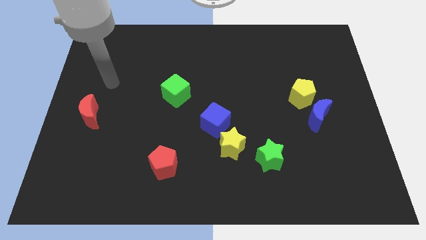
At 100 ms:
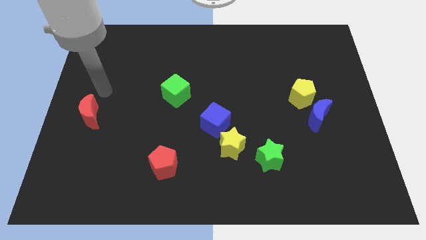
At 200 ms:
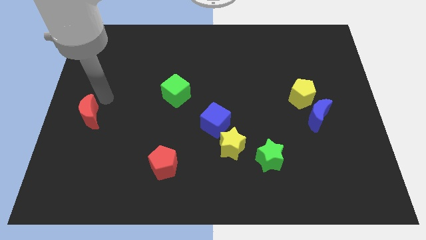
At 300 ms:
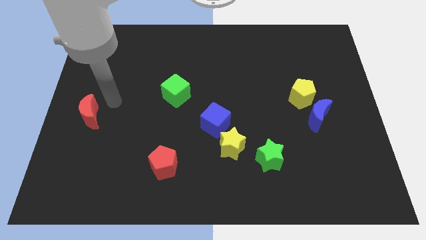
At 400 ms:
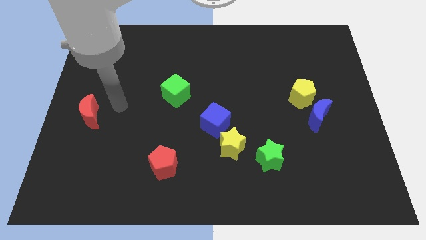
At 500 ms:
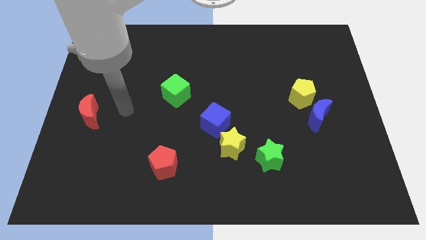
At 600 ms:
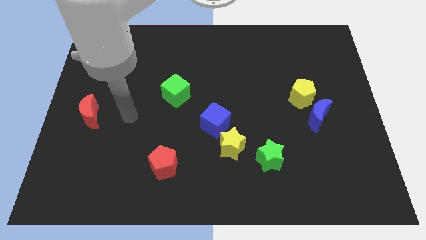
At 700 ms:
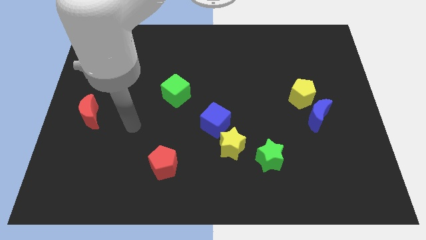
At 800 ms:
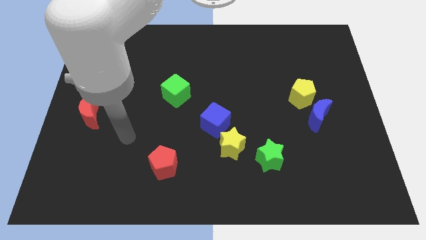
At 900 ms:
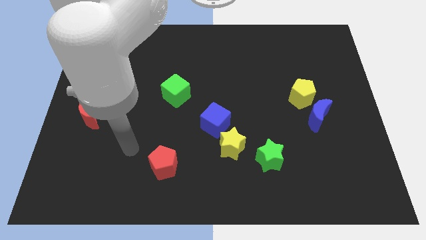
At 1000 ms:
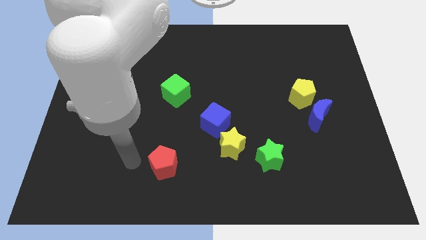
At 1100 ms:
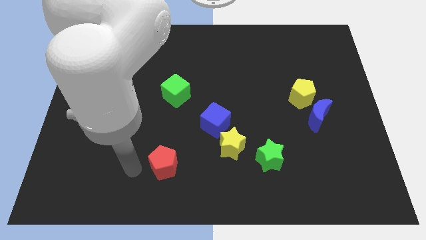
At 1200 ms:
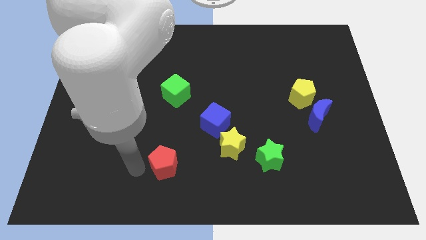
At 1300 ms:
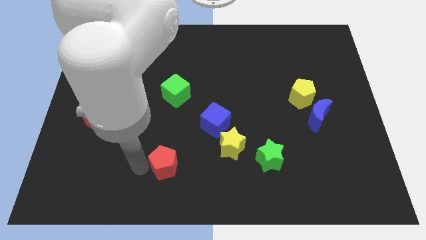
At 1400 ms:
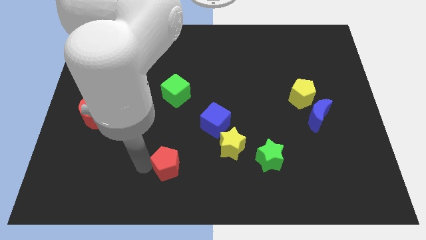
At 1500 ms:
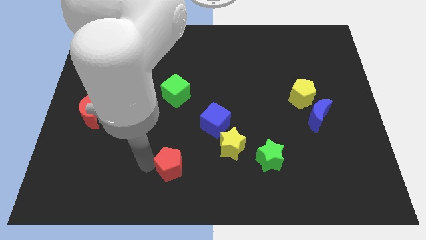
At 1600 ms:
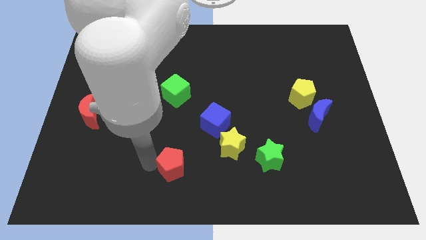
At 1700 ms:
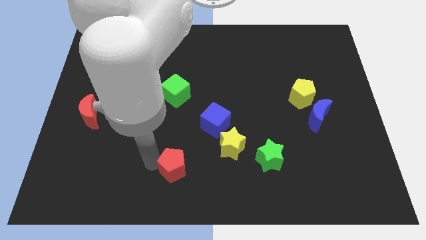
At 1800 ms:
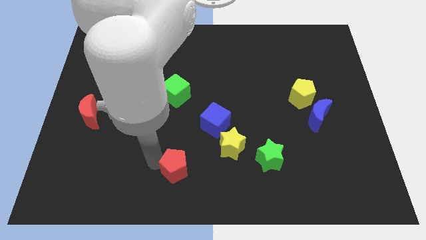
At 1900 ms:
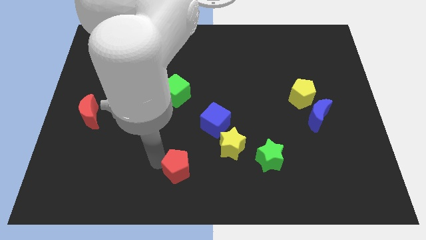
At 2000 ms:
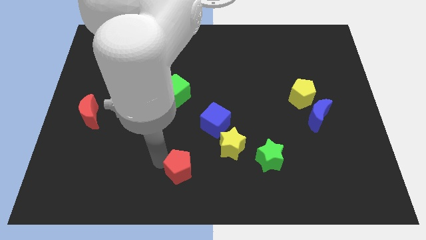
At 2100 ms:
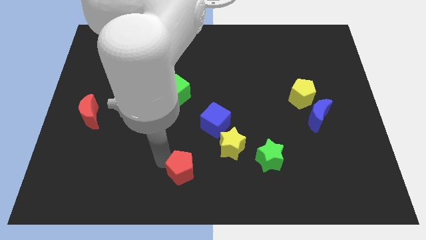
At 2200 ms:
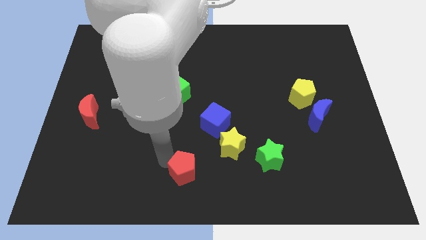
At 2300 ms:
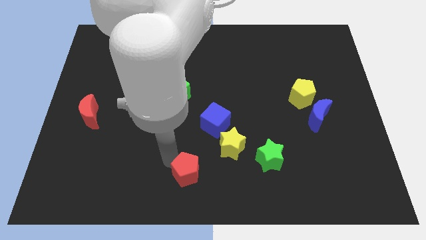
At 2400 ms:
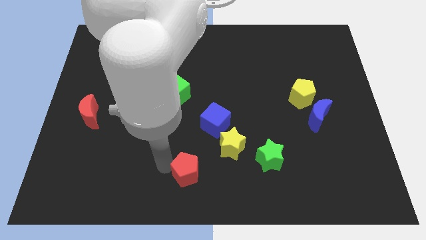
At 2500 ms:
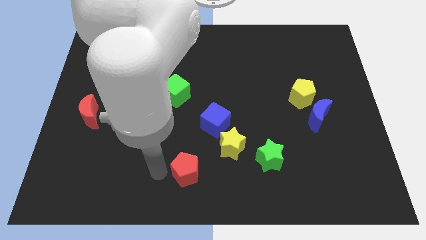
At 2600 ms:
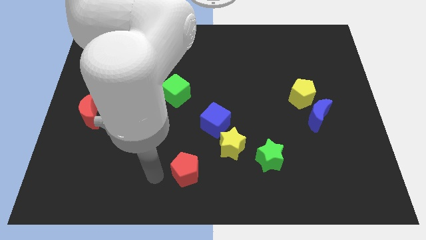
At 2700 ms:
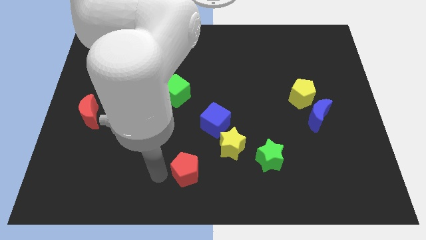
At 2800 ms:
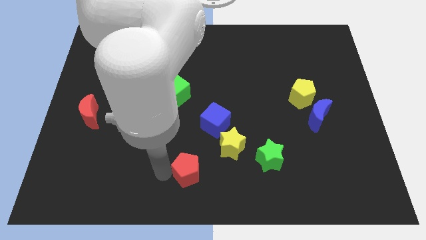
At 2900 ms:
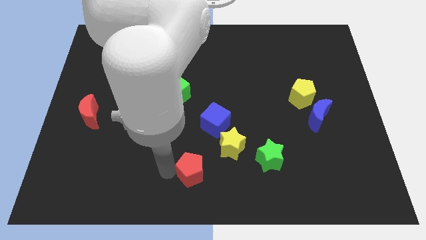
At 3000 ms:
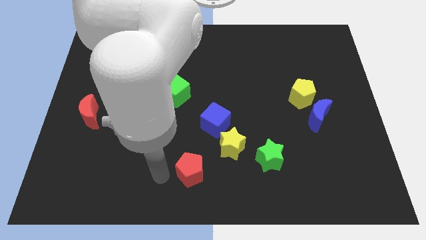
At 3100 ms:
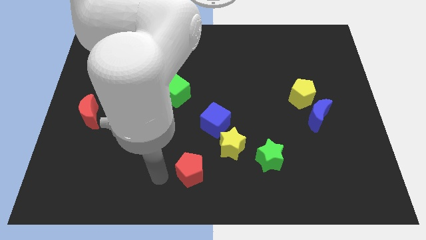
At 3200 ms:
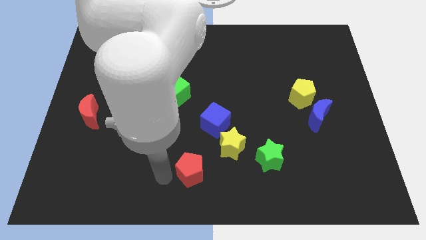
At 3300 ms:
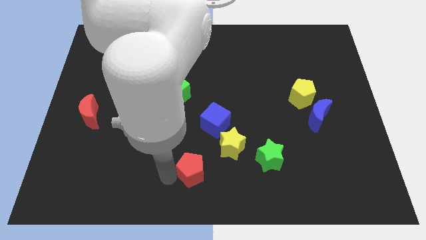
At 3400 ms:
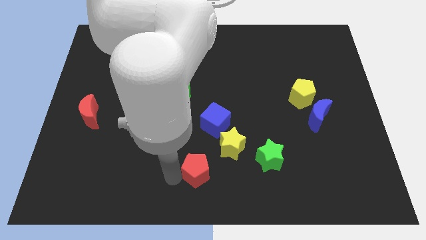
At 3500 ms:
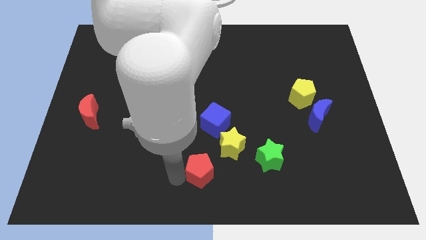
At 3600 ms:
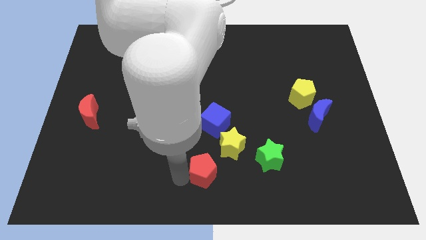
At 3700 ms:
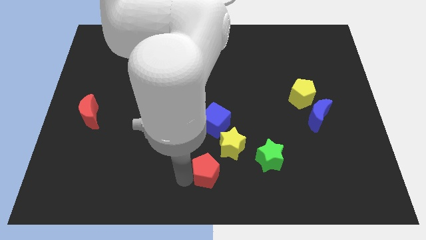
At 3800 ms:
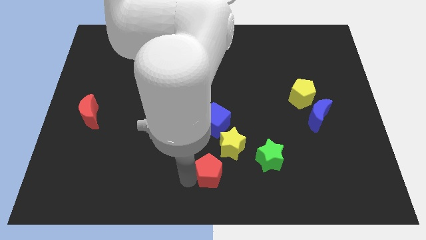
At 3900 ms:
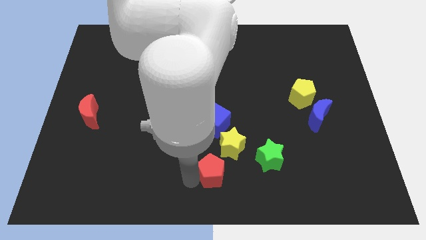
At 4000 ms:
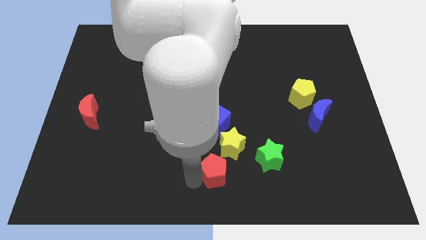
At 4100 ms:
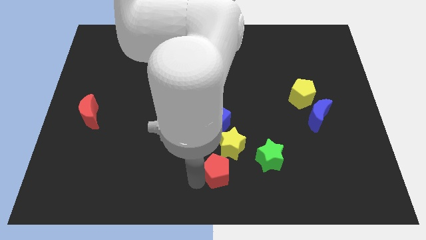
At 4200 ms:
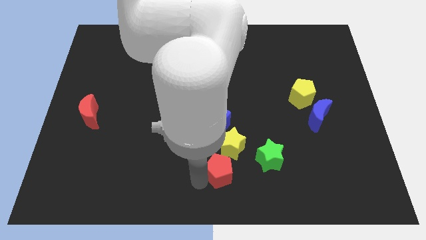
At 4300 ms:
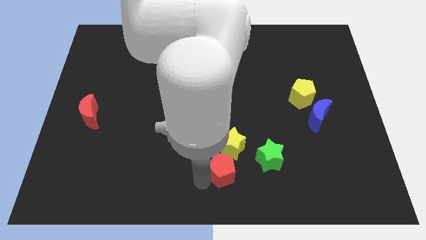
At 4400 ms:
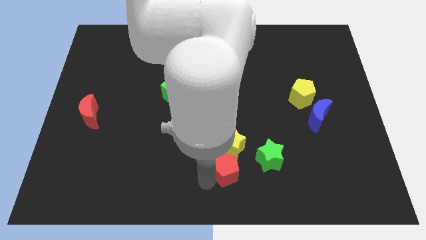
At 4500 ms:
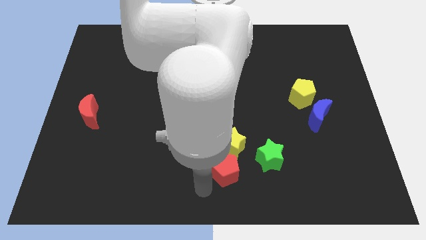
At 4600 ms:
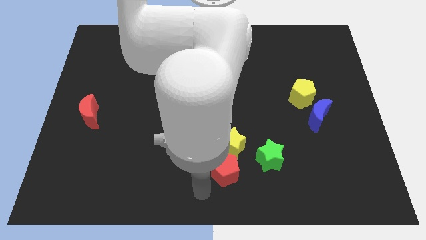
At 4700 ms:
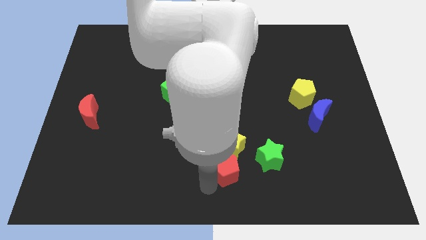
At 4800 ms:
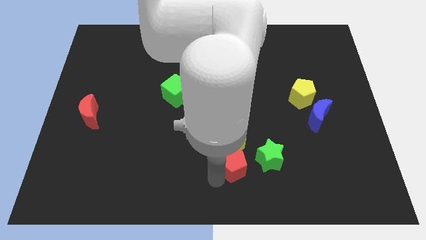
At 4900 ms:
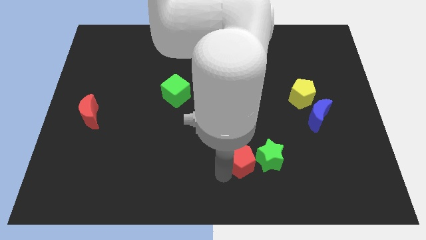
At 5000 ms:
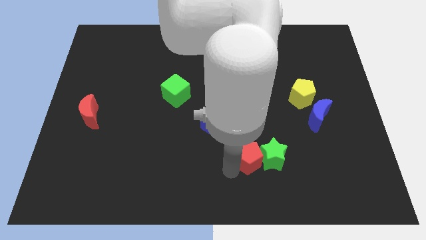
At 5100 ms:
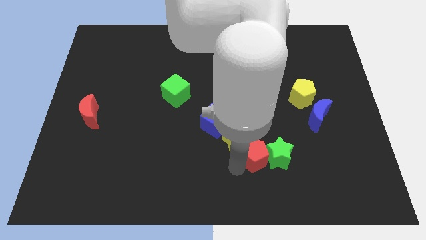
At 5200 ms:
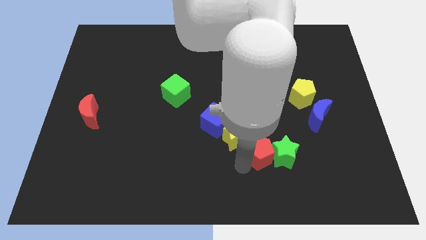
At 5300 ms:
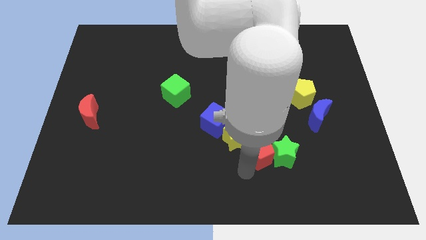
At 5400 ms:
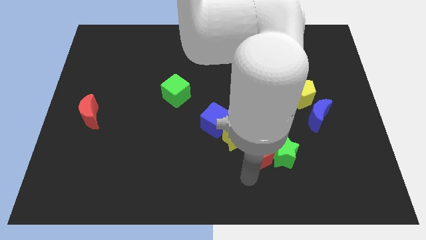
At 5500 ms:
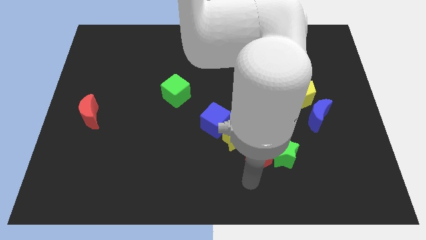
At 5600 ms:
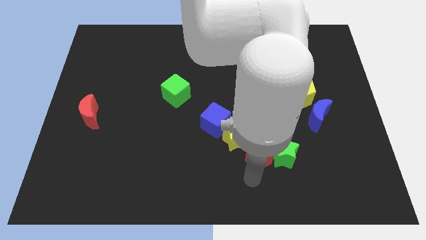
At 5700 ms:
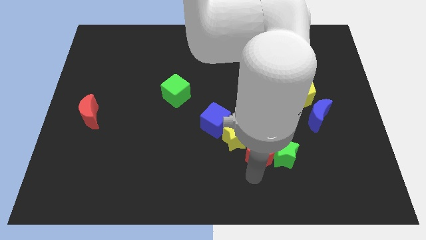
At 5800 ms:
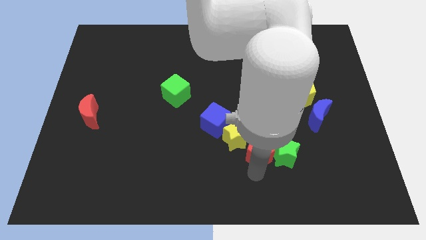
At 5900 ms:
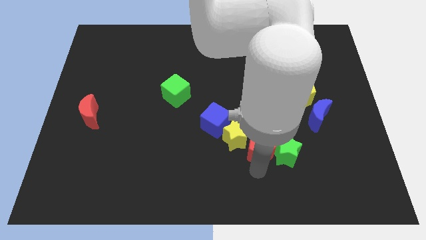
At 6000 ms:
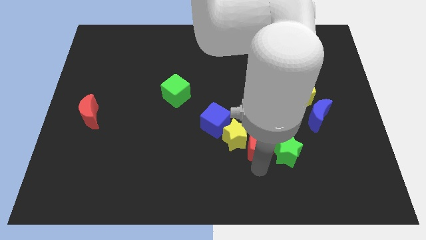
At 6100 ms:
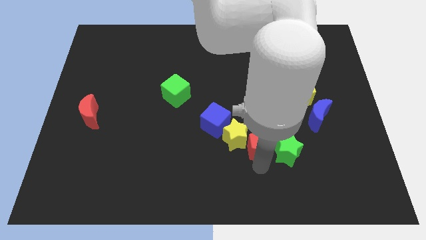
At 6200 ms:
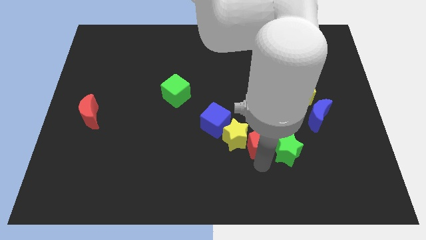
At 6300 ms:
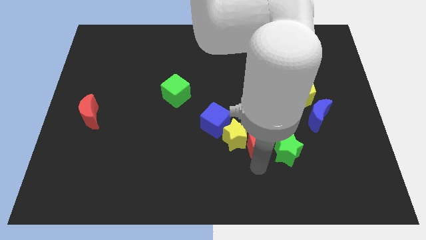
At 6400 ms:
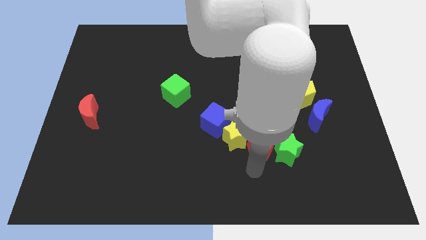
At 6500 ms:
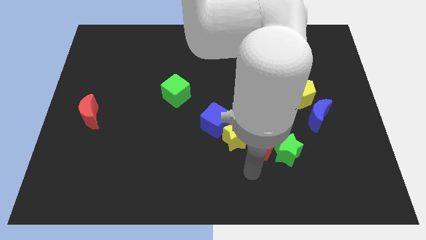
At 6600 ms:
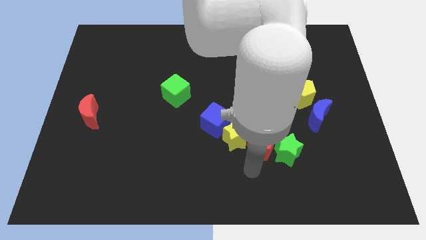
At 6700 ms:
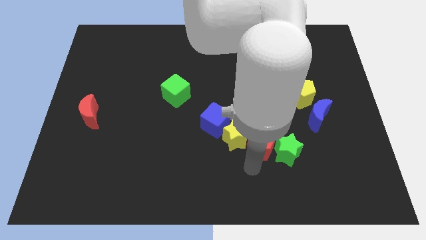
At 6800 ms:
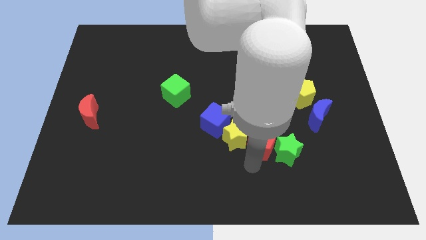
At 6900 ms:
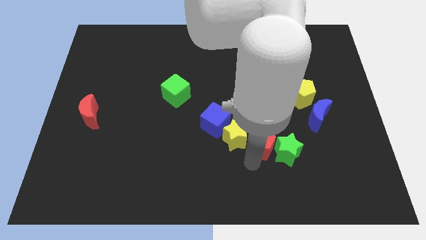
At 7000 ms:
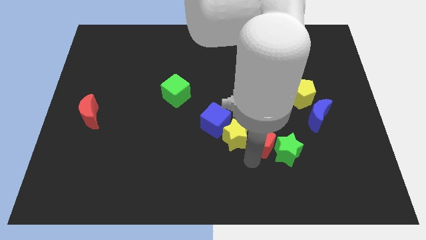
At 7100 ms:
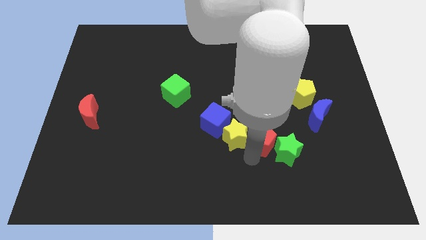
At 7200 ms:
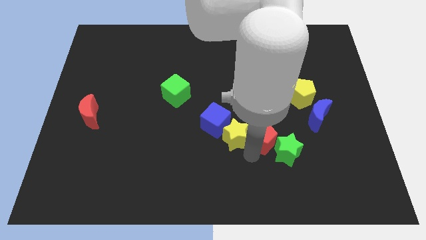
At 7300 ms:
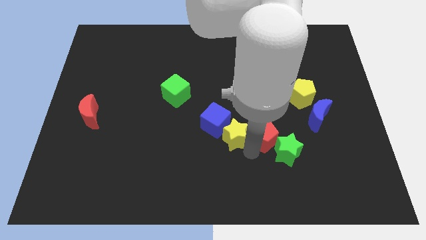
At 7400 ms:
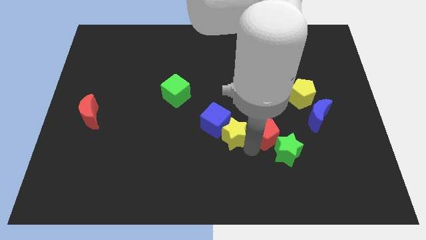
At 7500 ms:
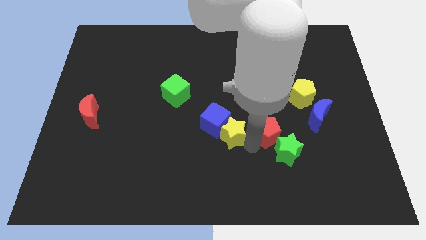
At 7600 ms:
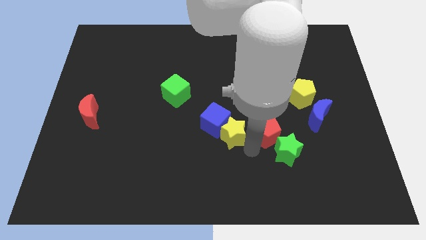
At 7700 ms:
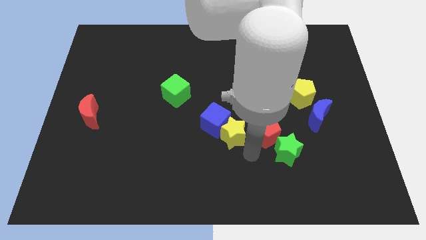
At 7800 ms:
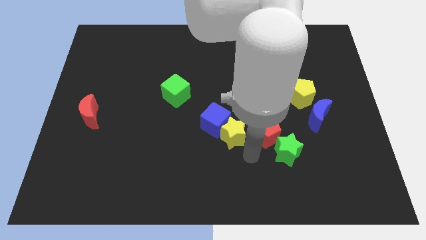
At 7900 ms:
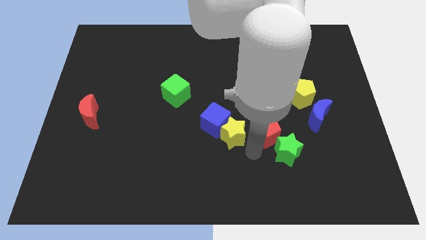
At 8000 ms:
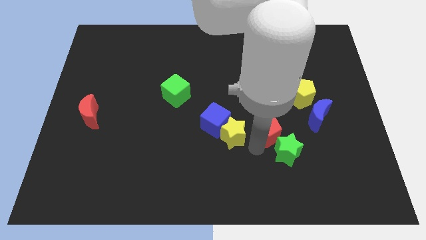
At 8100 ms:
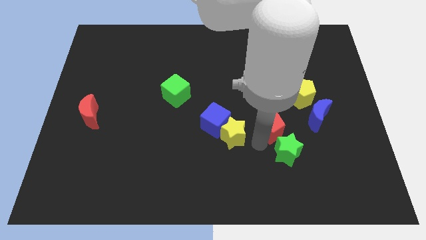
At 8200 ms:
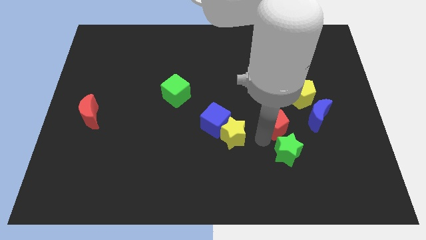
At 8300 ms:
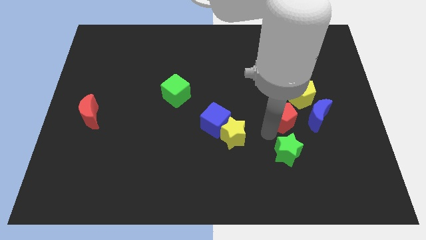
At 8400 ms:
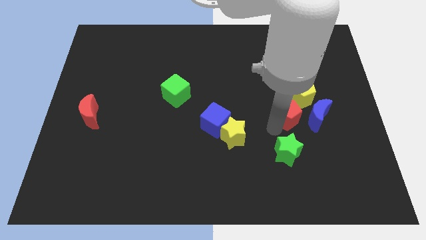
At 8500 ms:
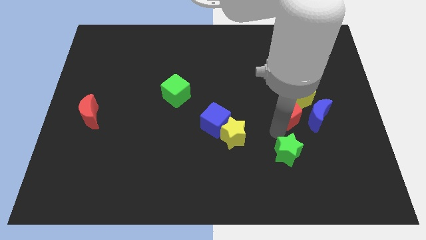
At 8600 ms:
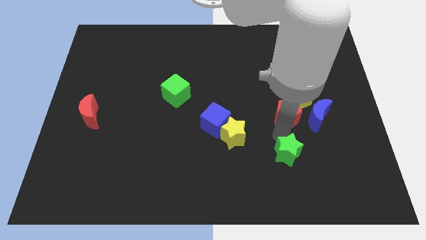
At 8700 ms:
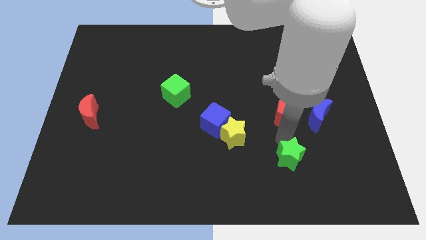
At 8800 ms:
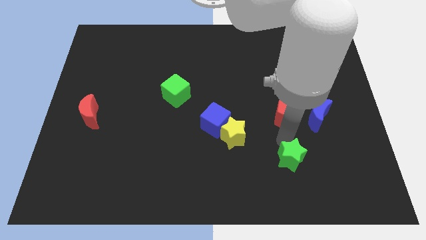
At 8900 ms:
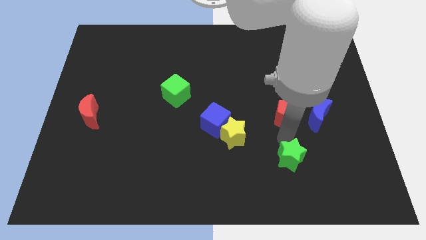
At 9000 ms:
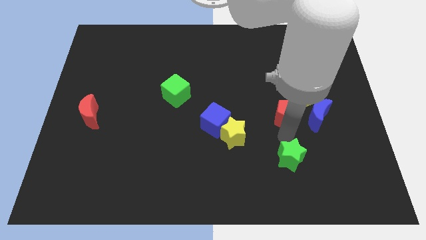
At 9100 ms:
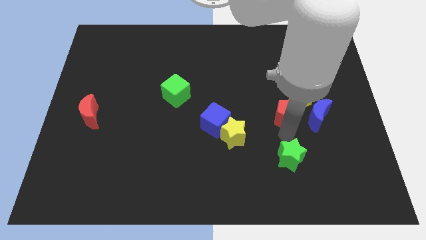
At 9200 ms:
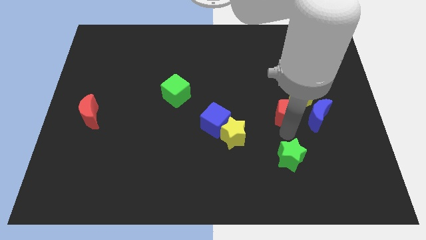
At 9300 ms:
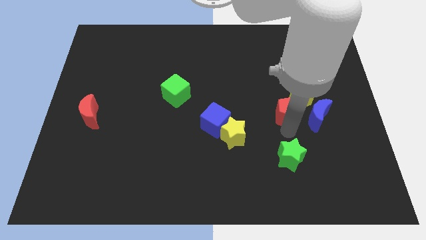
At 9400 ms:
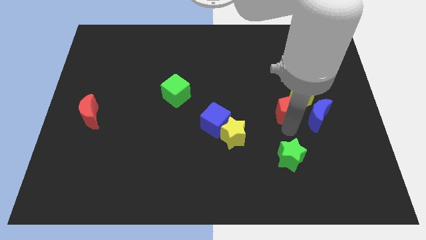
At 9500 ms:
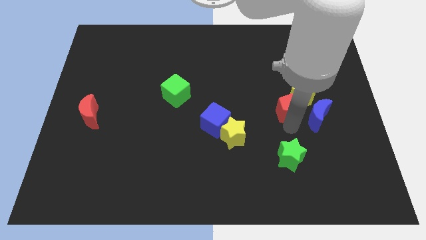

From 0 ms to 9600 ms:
move the red pentagon next to the yellow pentagon
